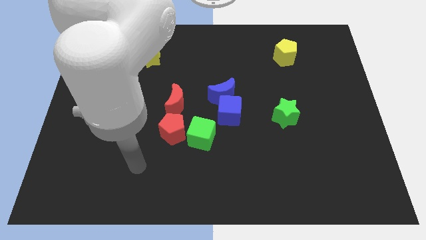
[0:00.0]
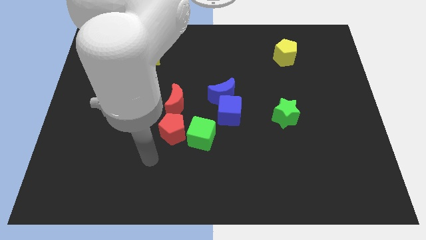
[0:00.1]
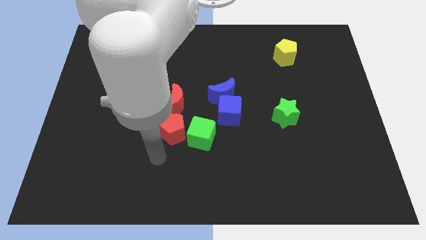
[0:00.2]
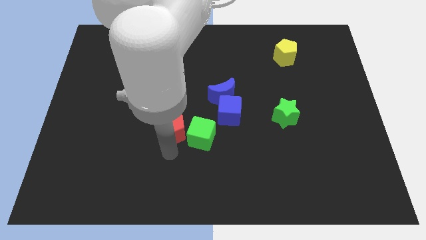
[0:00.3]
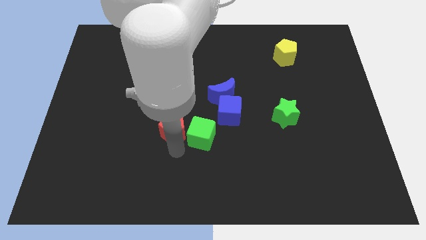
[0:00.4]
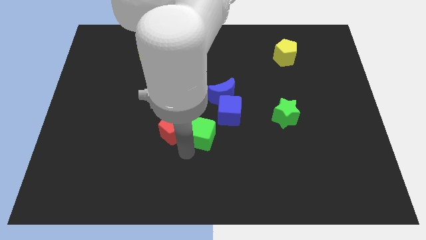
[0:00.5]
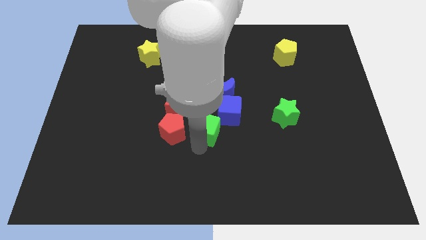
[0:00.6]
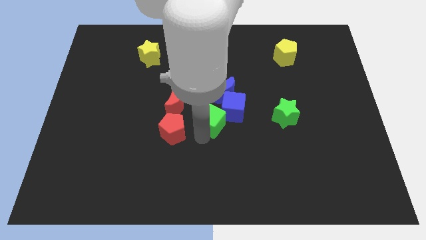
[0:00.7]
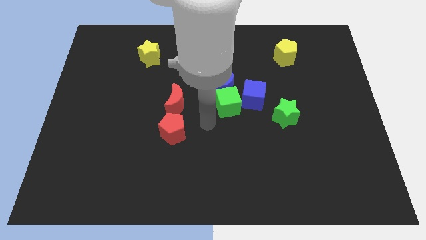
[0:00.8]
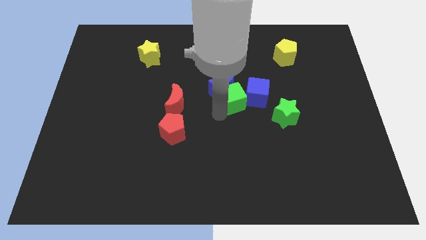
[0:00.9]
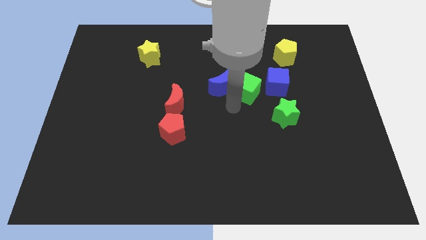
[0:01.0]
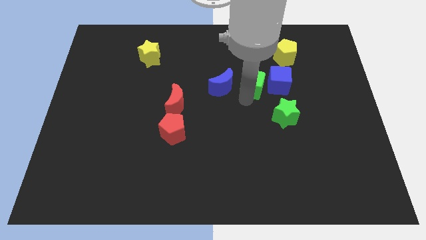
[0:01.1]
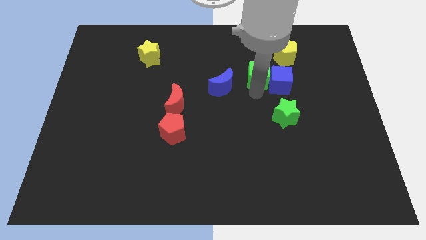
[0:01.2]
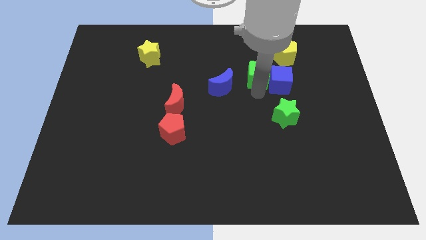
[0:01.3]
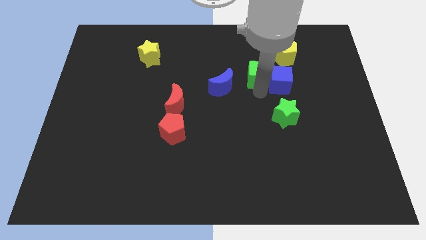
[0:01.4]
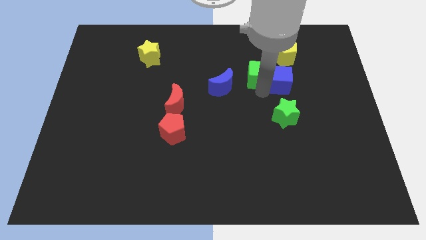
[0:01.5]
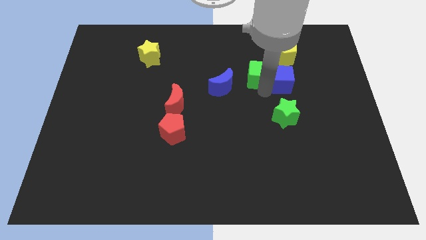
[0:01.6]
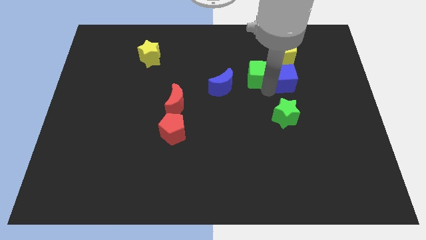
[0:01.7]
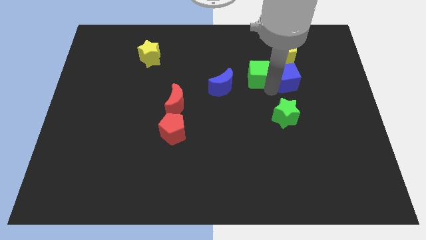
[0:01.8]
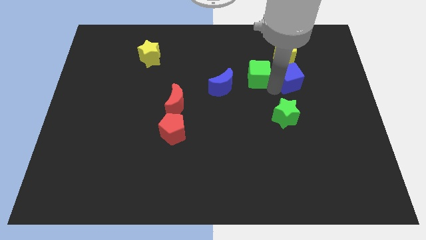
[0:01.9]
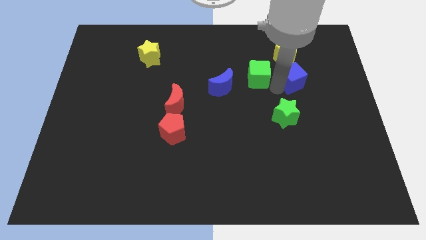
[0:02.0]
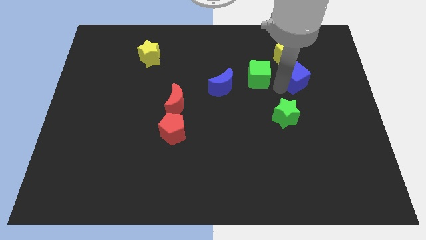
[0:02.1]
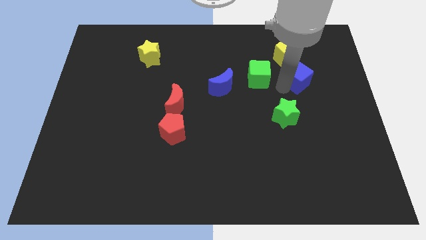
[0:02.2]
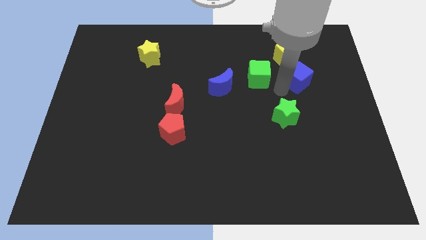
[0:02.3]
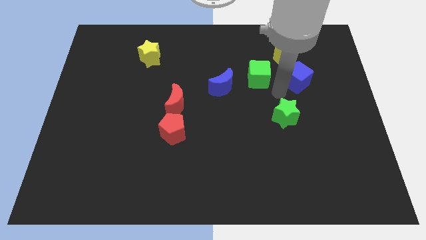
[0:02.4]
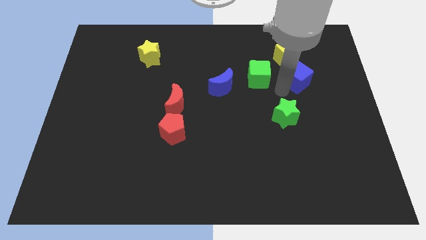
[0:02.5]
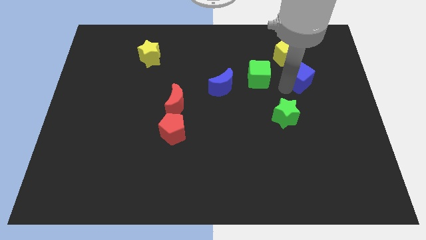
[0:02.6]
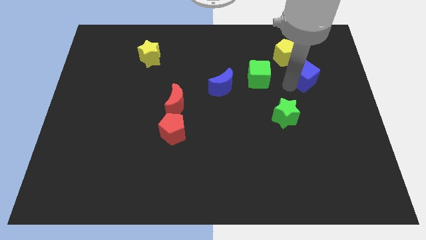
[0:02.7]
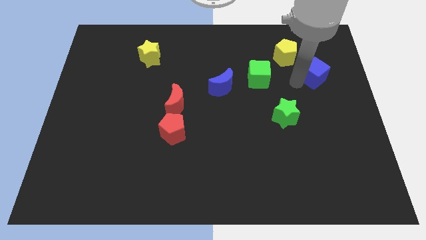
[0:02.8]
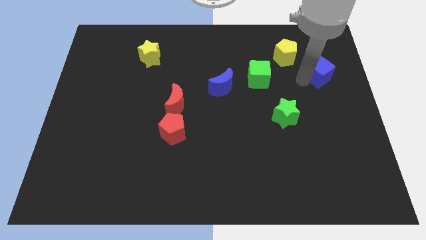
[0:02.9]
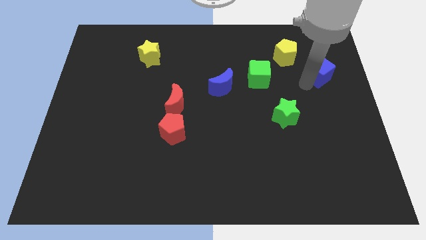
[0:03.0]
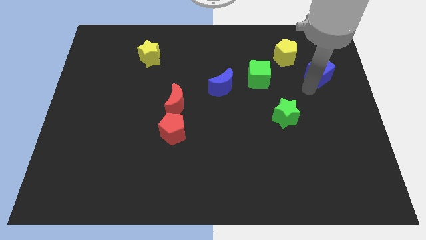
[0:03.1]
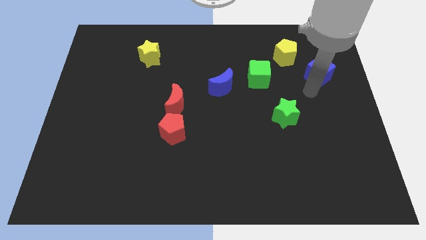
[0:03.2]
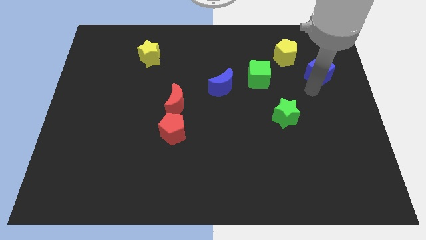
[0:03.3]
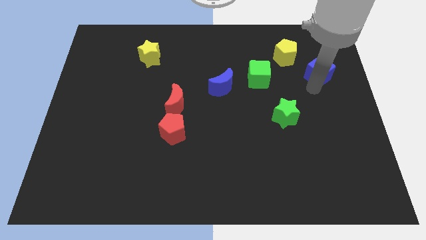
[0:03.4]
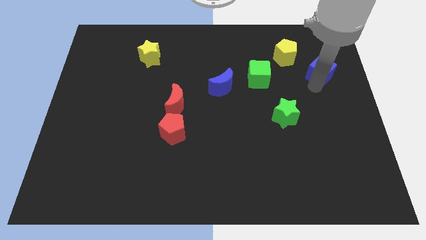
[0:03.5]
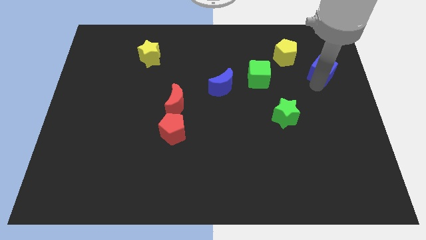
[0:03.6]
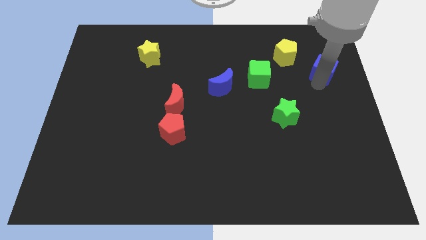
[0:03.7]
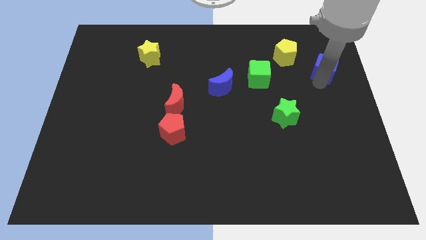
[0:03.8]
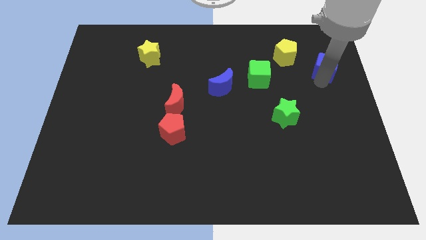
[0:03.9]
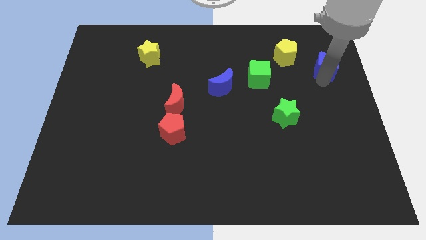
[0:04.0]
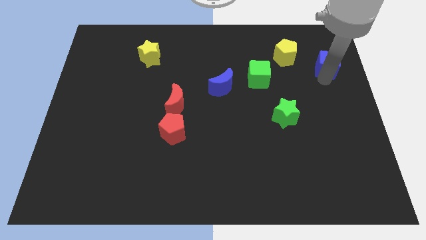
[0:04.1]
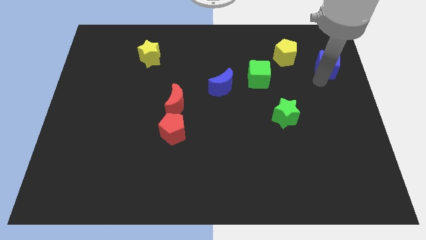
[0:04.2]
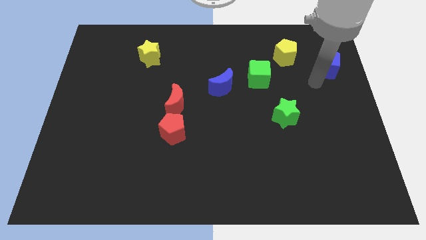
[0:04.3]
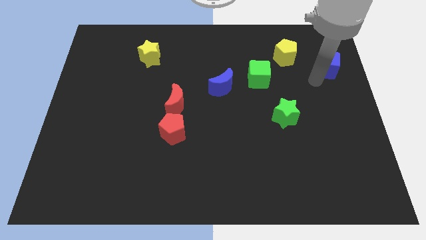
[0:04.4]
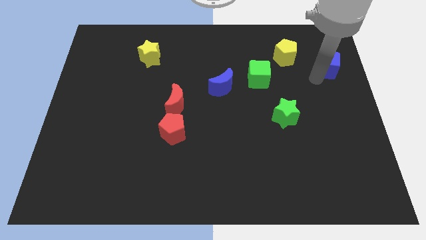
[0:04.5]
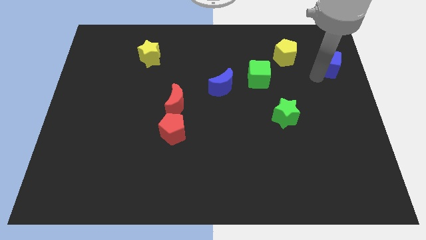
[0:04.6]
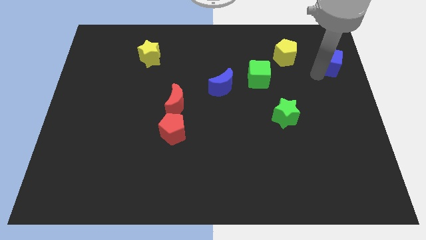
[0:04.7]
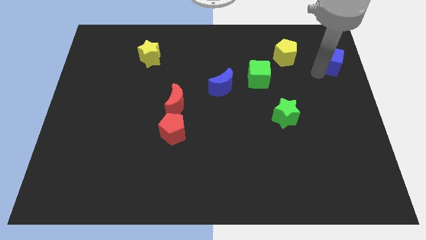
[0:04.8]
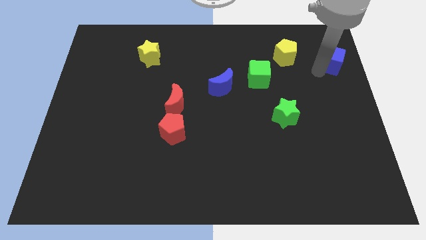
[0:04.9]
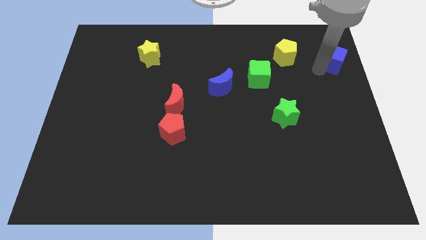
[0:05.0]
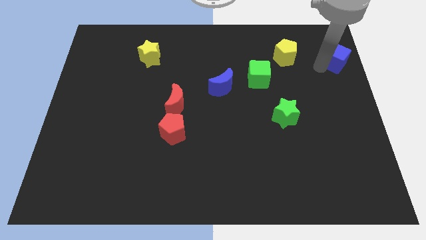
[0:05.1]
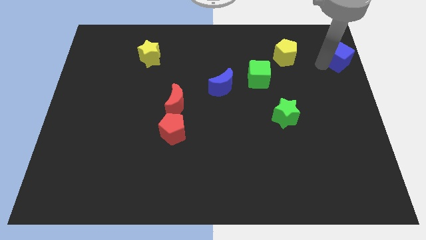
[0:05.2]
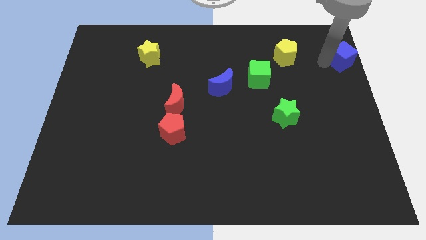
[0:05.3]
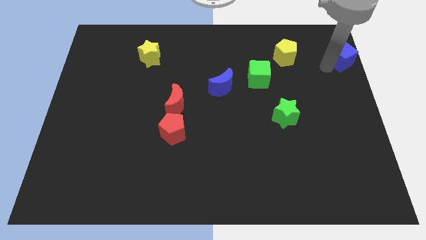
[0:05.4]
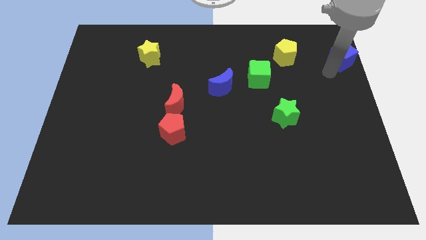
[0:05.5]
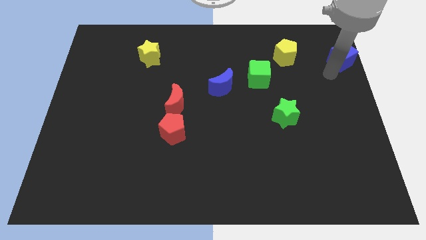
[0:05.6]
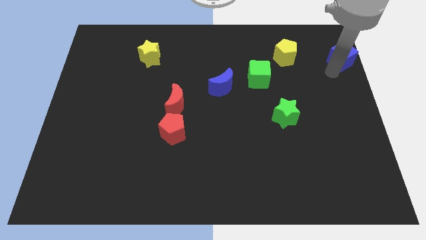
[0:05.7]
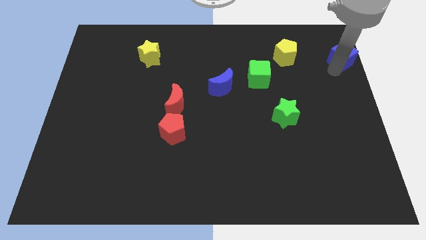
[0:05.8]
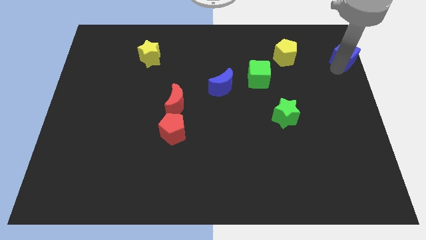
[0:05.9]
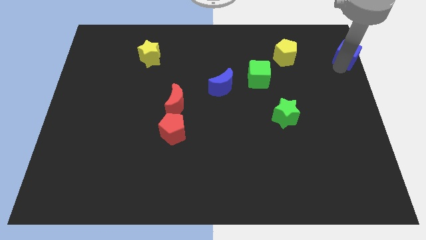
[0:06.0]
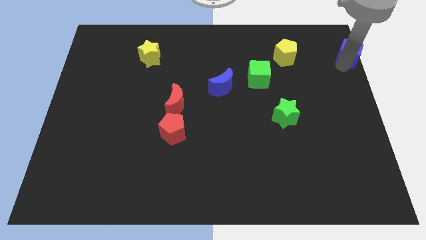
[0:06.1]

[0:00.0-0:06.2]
slide the blue cube to the top right

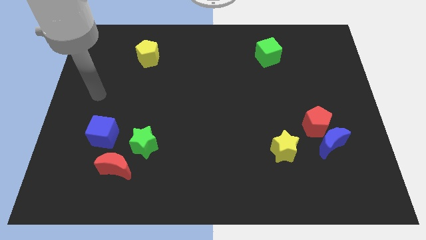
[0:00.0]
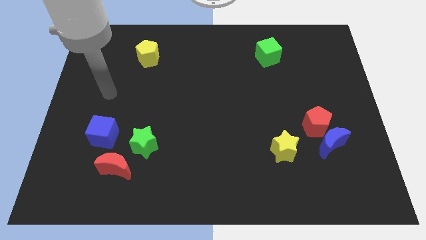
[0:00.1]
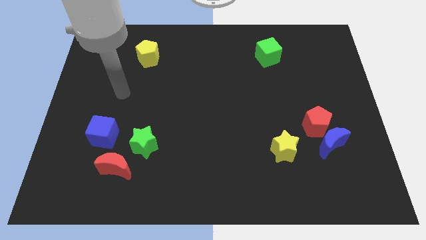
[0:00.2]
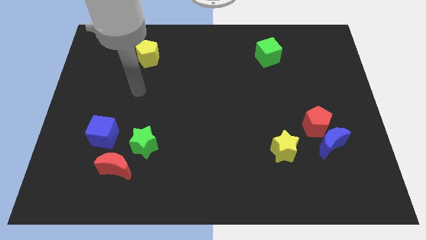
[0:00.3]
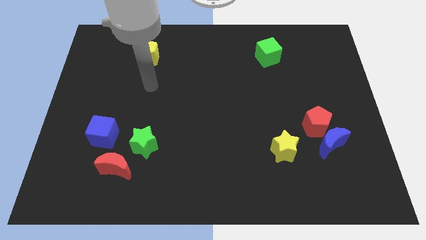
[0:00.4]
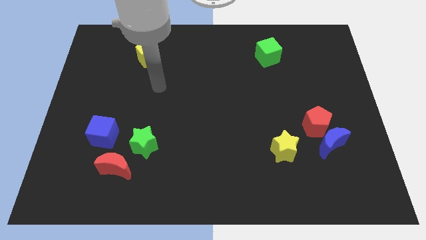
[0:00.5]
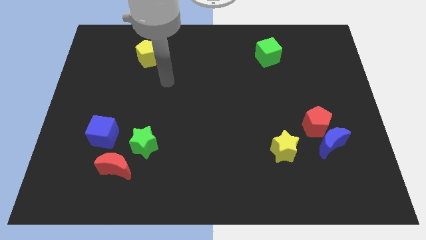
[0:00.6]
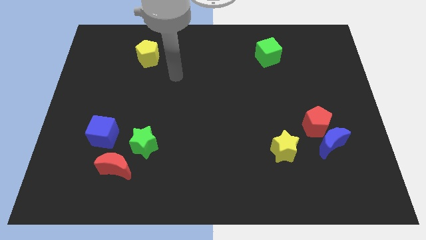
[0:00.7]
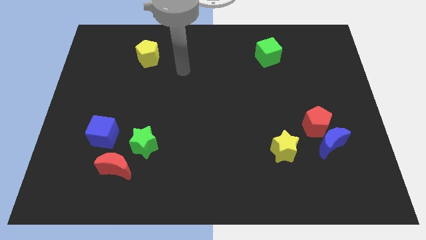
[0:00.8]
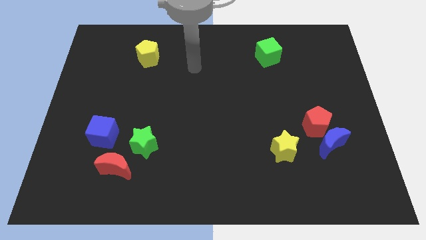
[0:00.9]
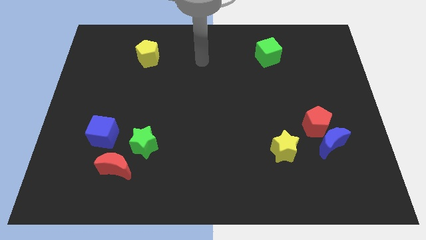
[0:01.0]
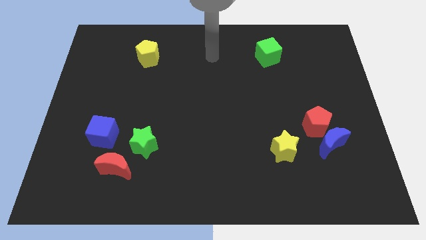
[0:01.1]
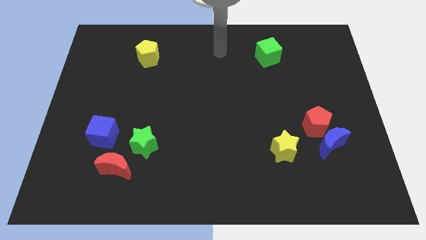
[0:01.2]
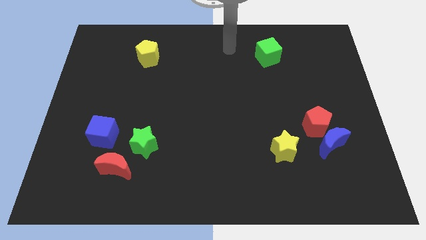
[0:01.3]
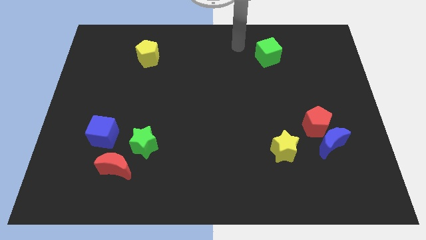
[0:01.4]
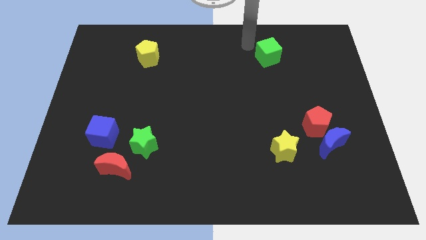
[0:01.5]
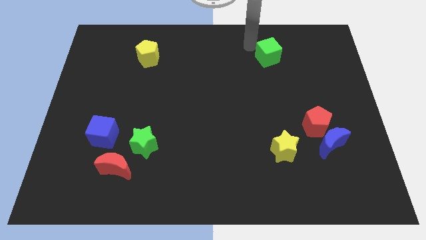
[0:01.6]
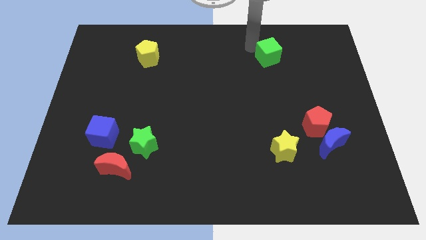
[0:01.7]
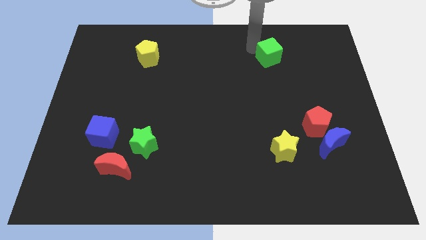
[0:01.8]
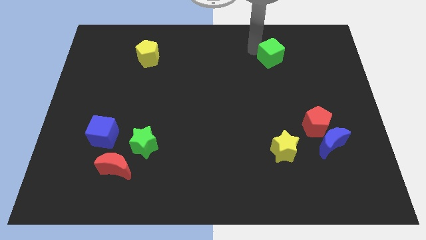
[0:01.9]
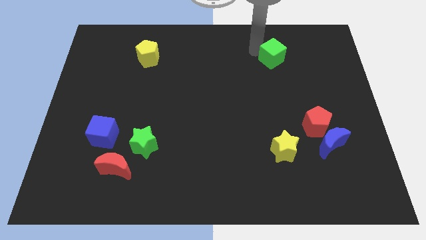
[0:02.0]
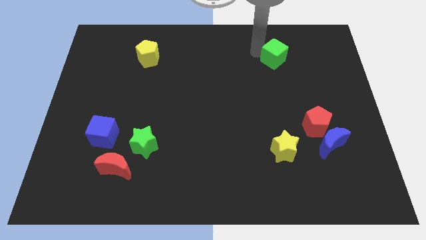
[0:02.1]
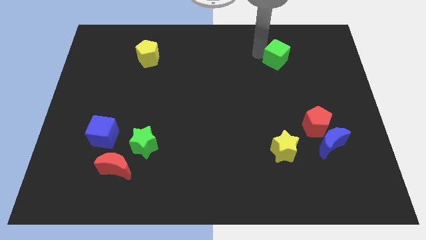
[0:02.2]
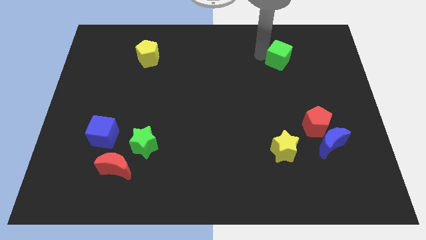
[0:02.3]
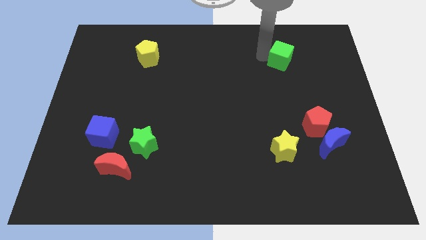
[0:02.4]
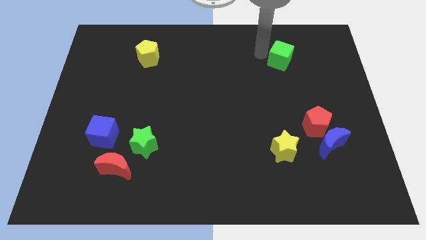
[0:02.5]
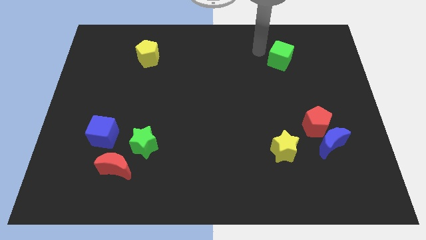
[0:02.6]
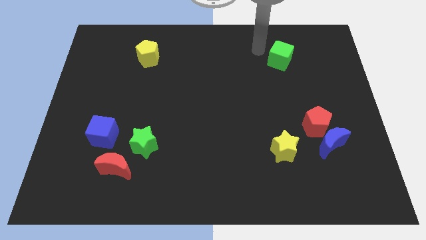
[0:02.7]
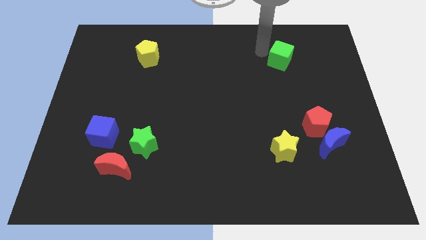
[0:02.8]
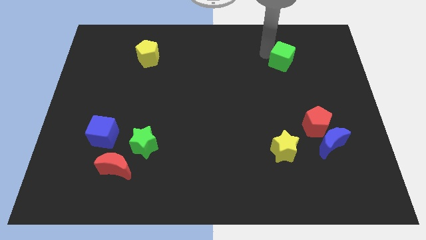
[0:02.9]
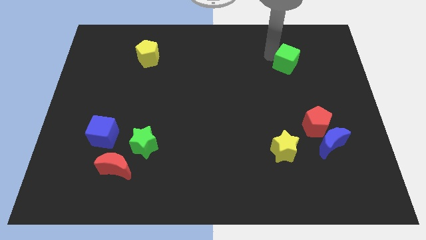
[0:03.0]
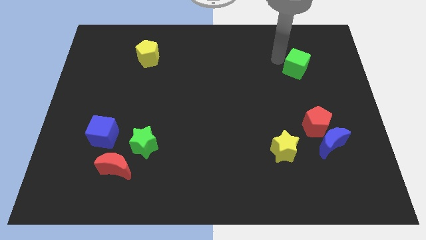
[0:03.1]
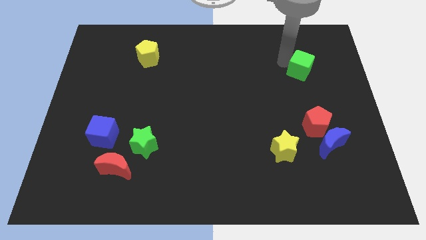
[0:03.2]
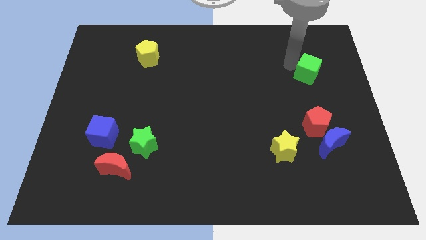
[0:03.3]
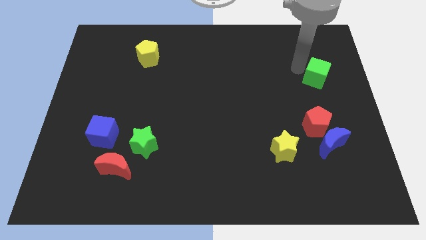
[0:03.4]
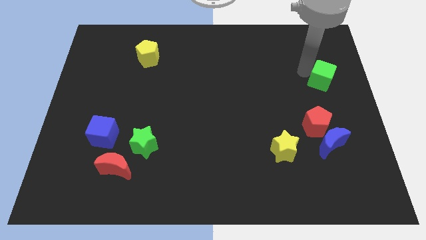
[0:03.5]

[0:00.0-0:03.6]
push the green cube to the center right
